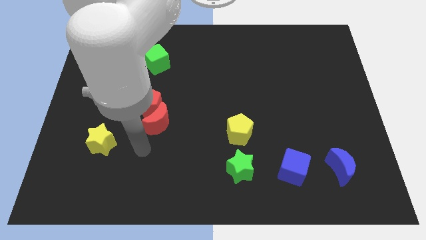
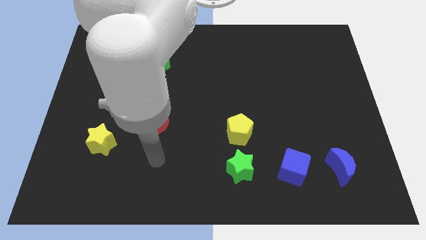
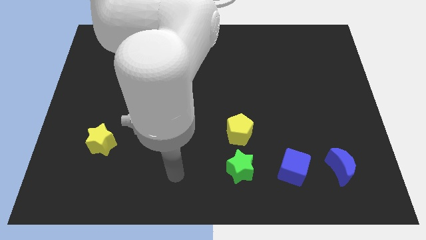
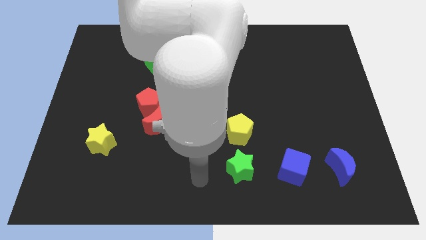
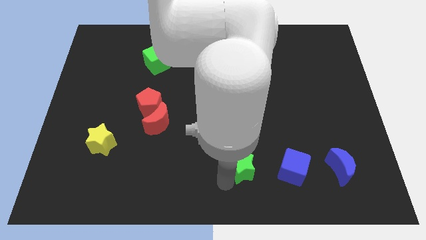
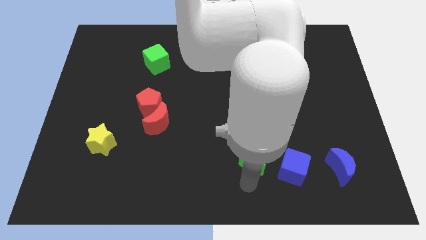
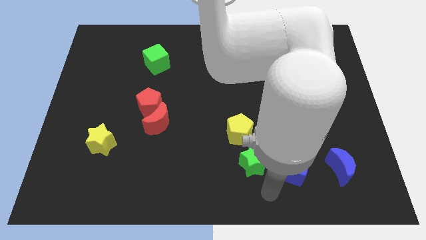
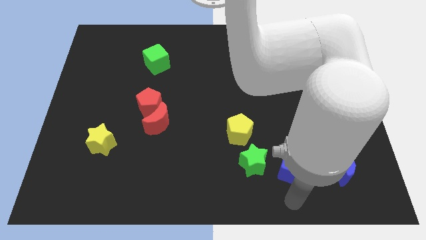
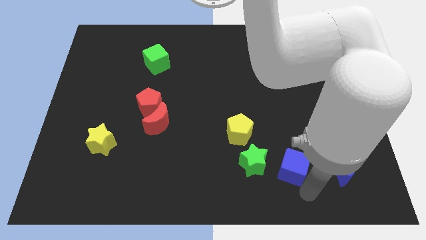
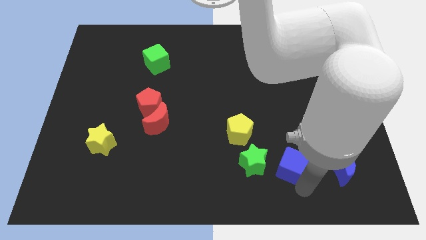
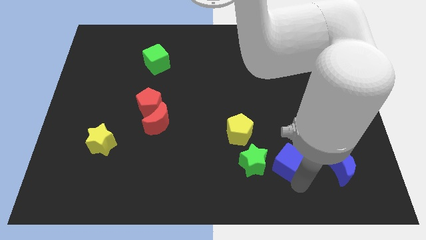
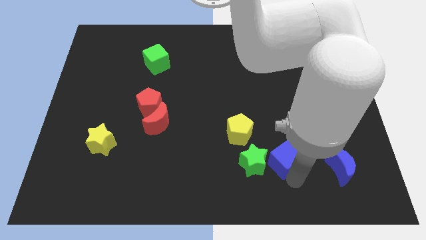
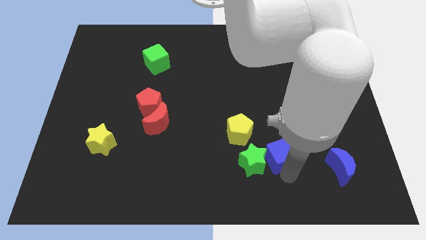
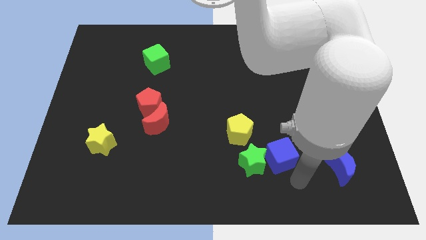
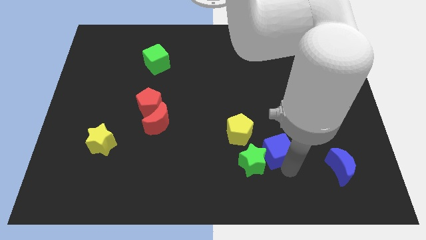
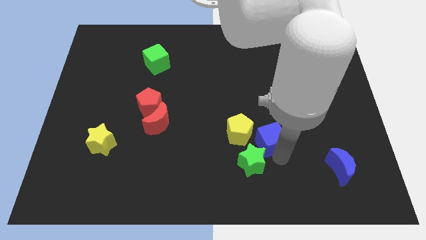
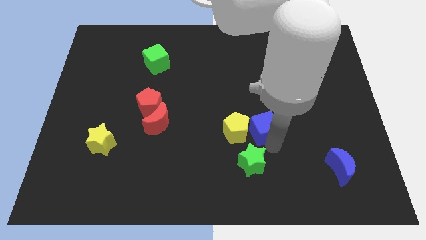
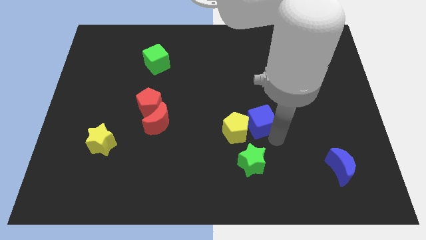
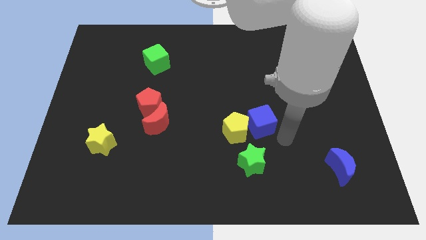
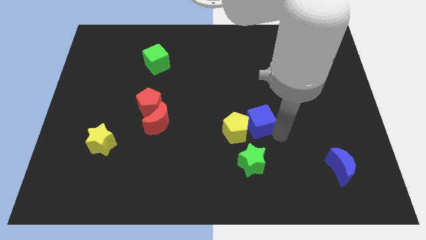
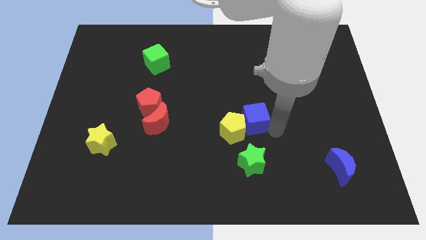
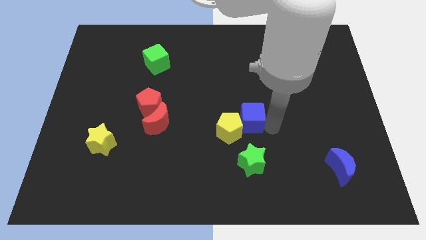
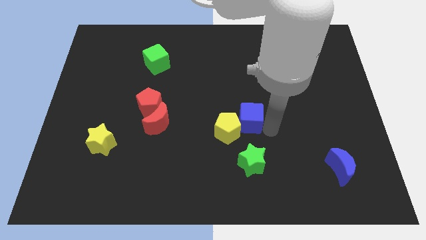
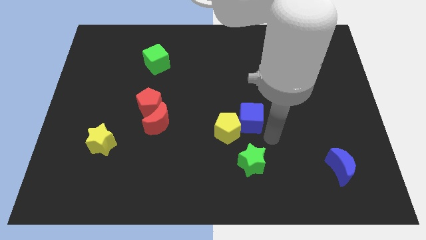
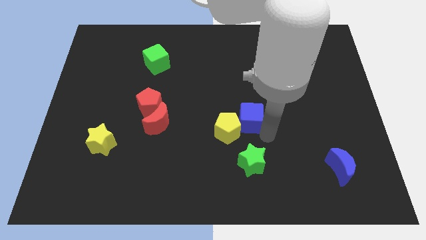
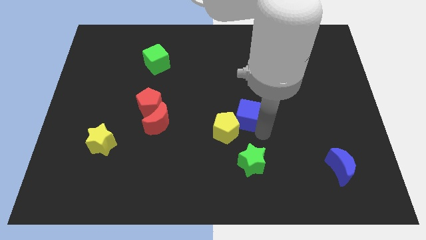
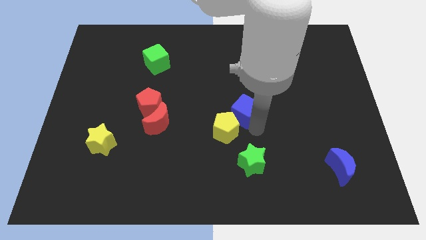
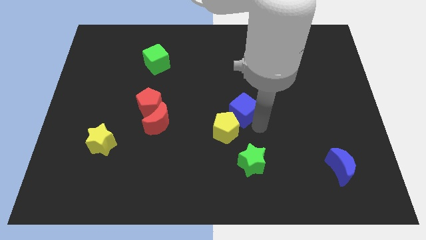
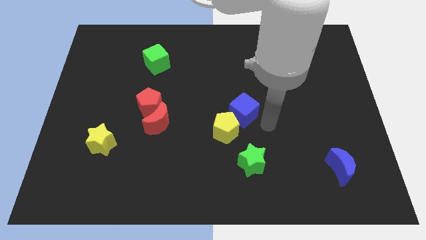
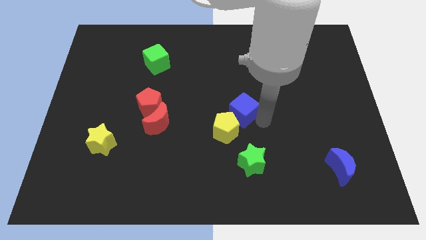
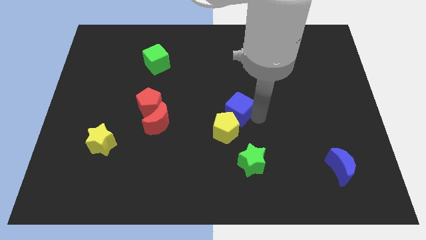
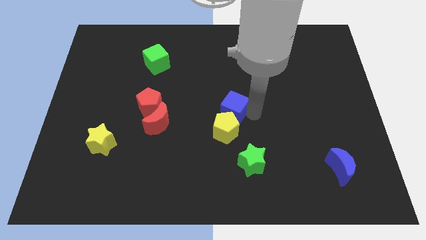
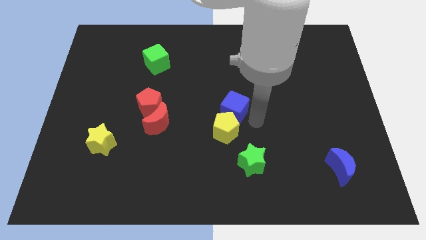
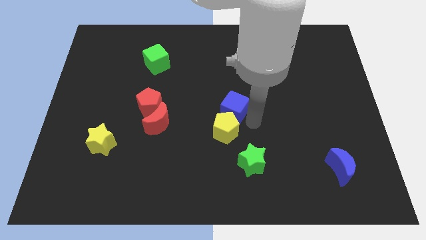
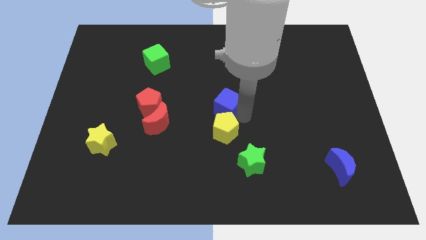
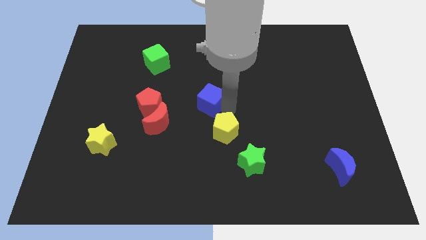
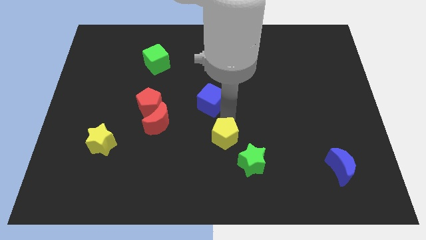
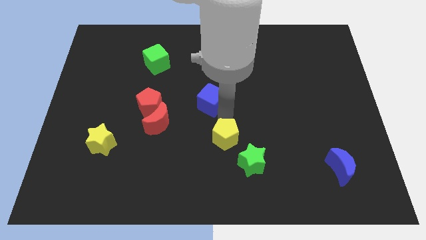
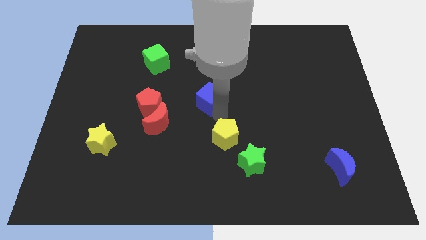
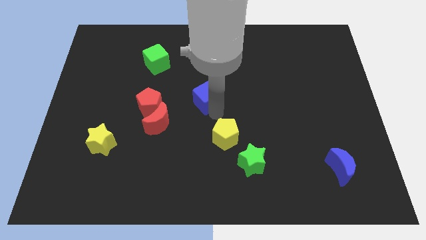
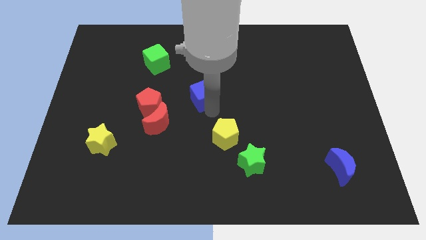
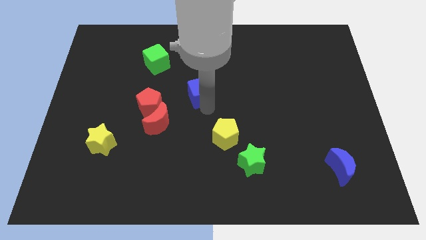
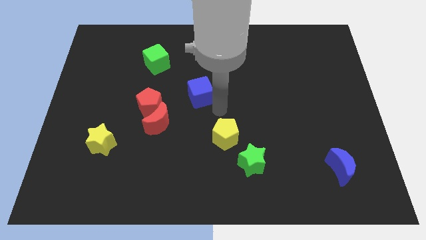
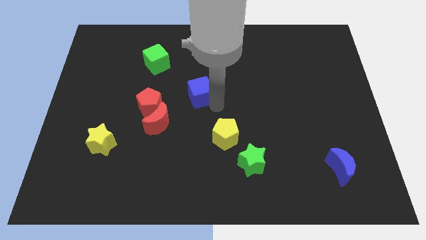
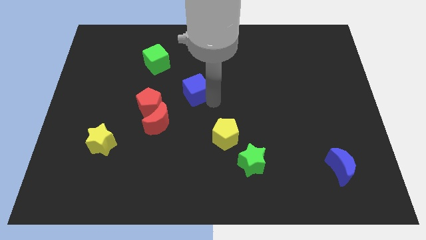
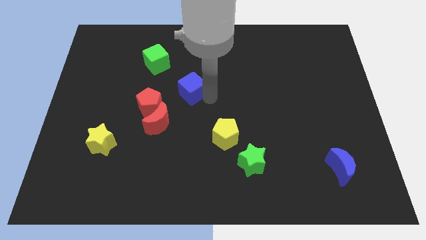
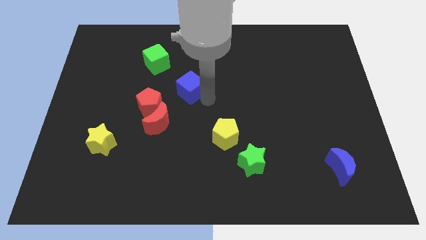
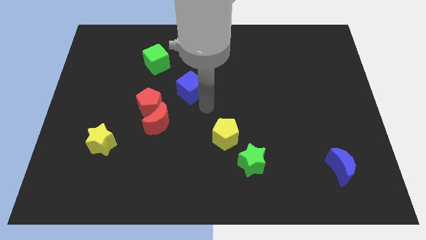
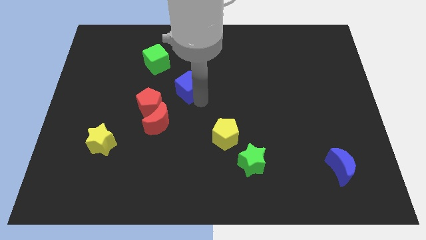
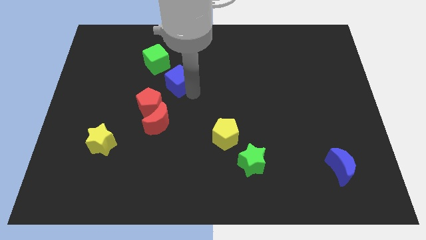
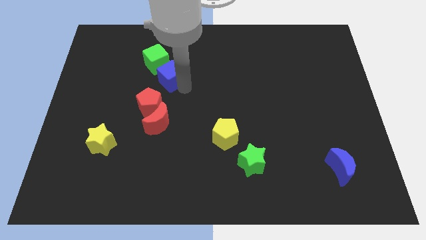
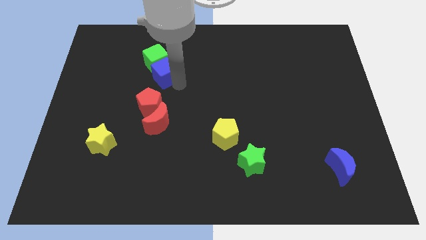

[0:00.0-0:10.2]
slide the blue cube to the green cube

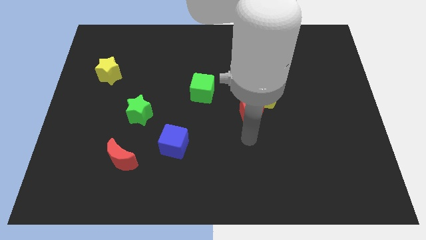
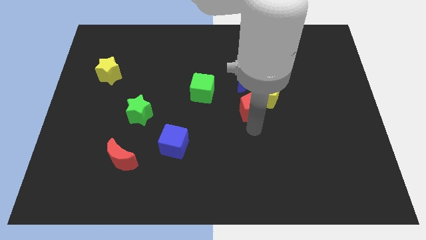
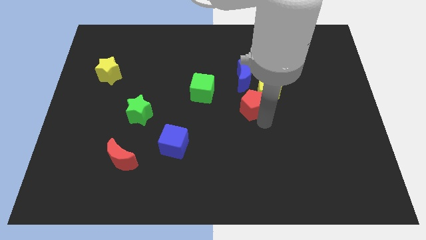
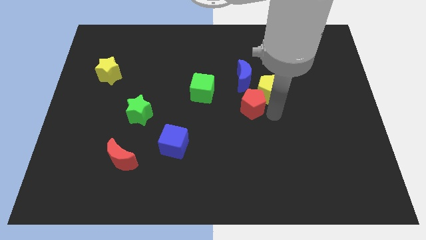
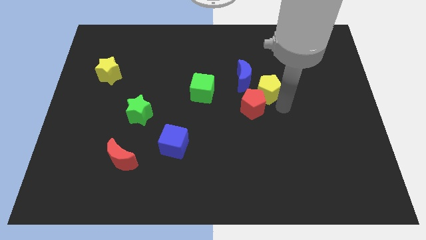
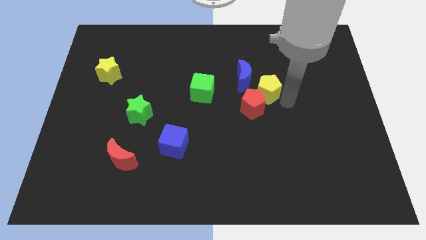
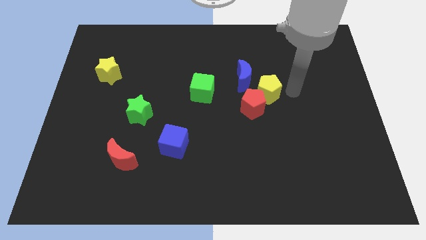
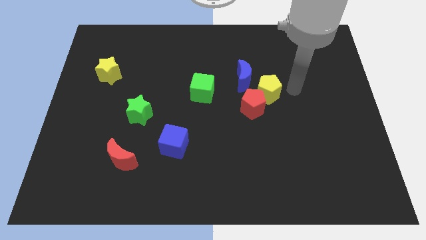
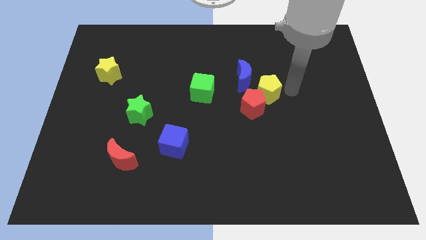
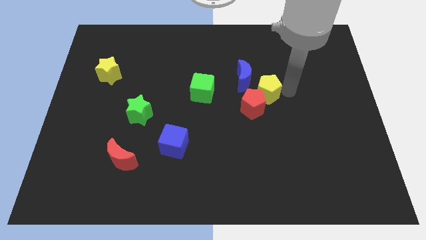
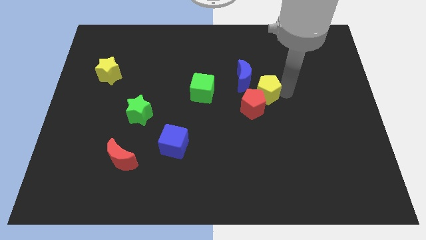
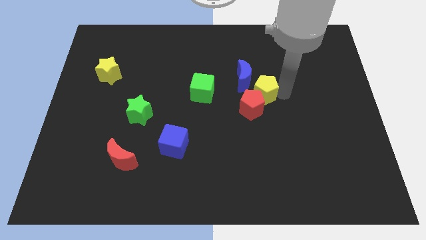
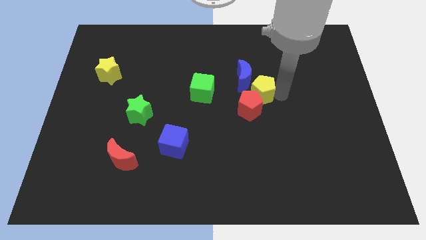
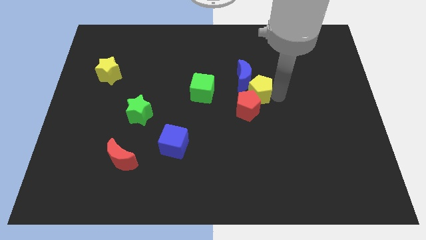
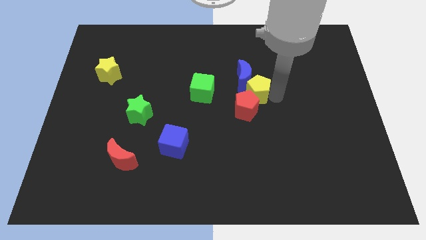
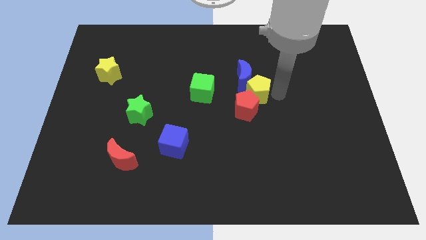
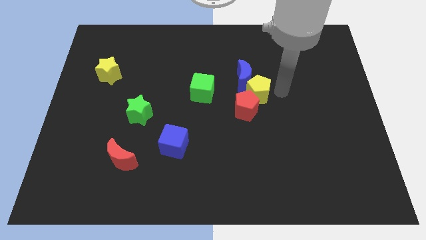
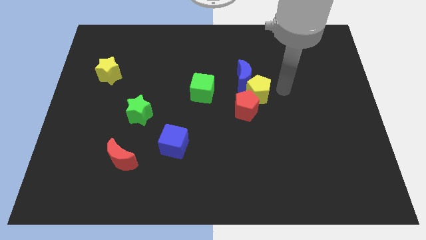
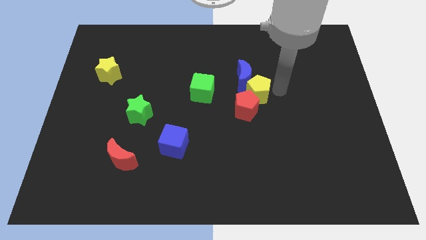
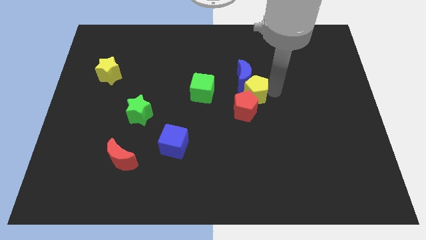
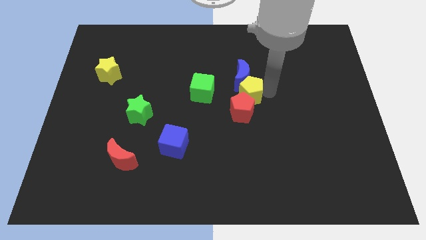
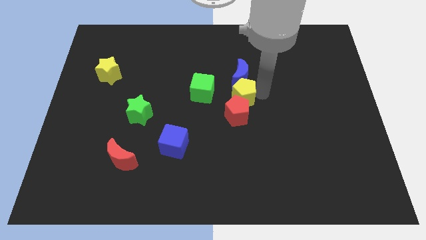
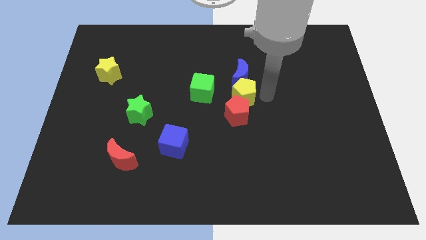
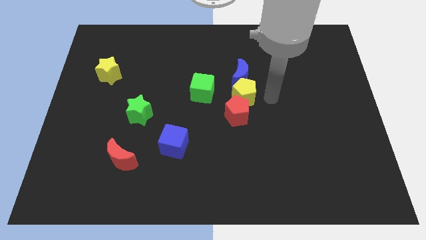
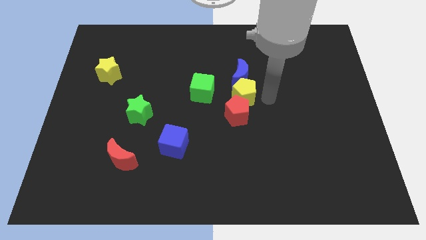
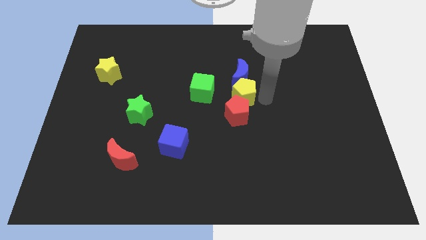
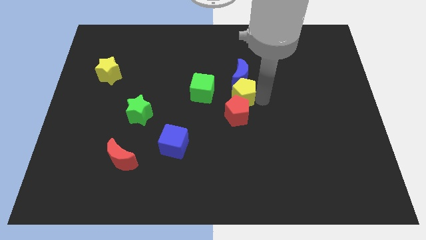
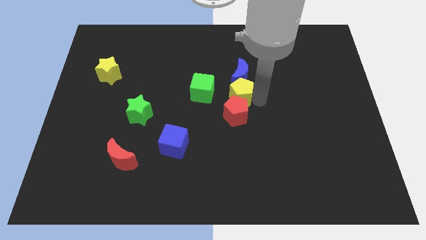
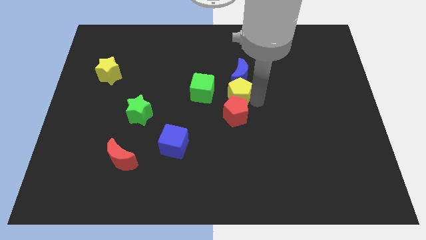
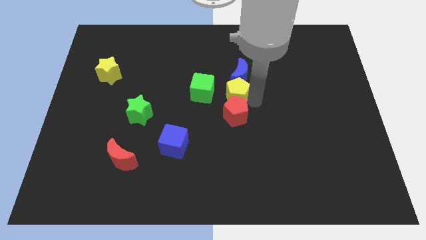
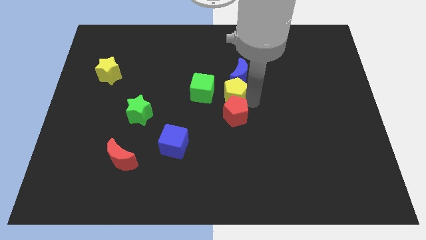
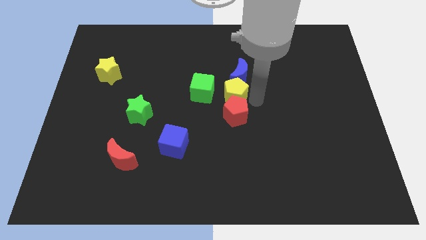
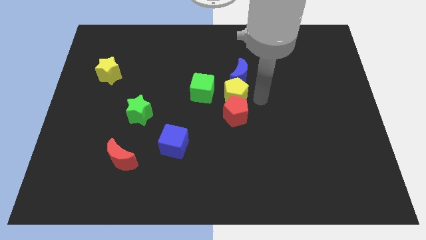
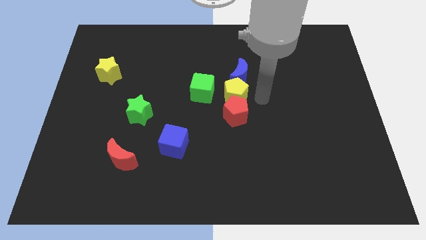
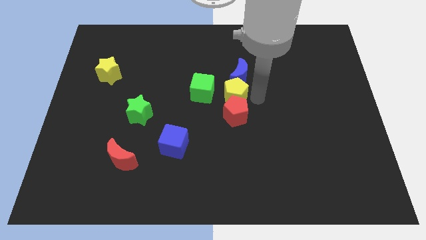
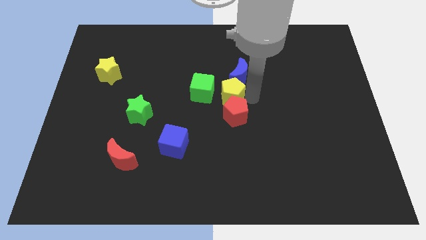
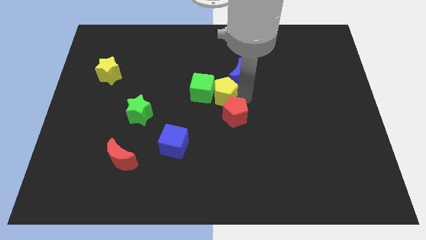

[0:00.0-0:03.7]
move the yellow pentagon towards the green cube
